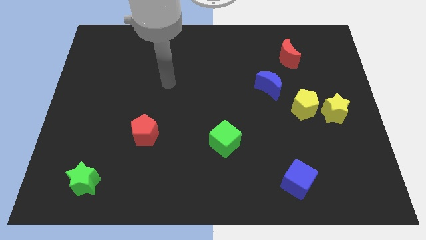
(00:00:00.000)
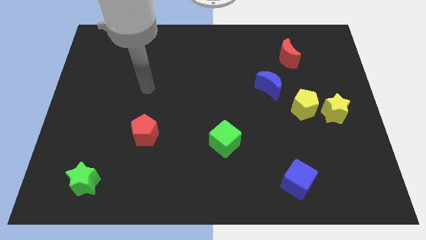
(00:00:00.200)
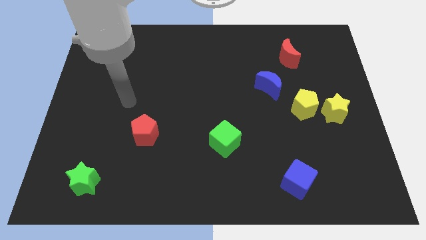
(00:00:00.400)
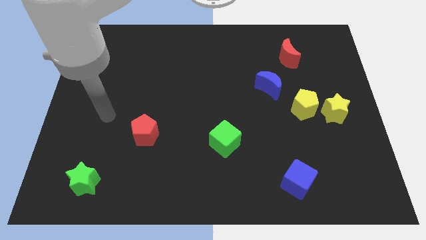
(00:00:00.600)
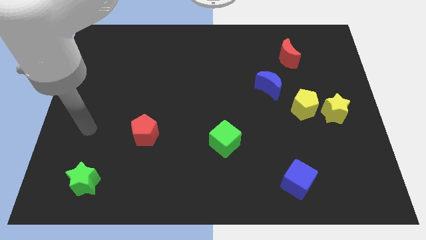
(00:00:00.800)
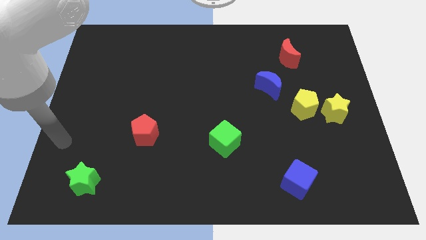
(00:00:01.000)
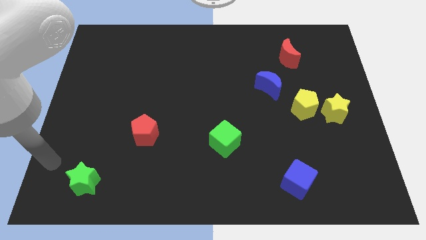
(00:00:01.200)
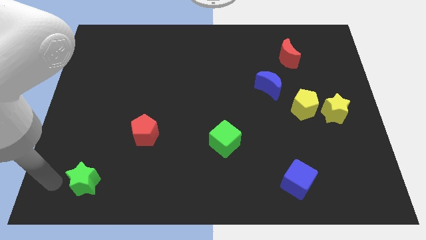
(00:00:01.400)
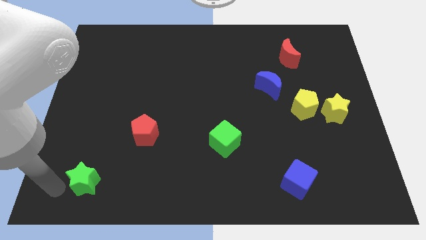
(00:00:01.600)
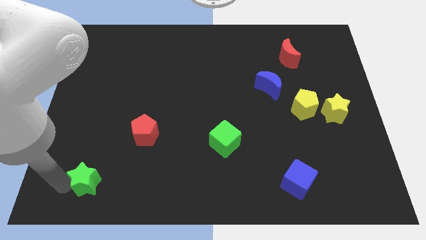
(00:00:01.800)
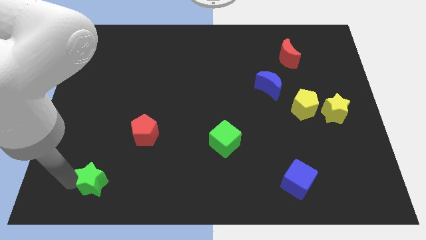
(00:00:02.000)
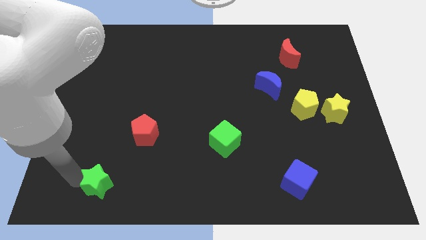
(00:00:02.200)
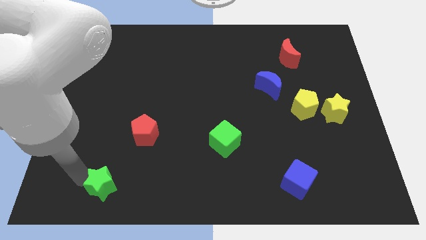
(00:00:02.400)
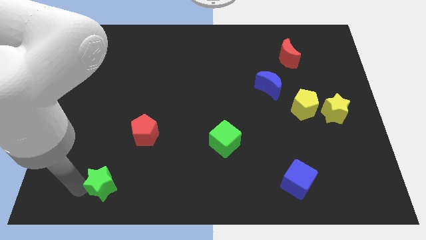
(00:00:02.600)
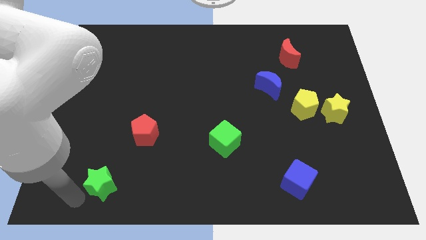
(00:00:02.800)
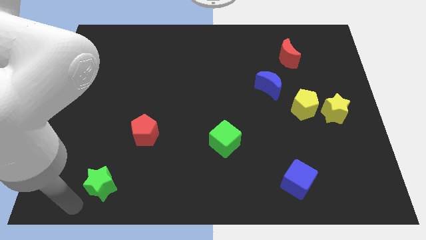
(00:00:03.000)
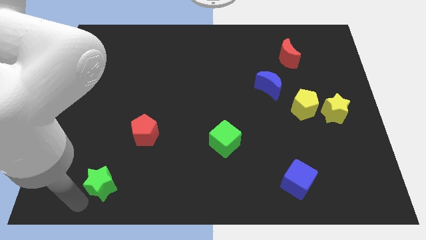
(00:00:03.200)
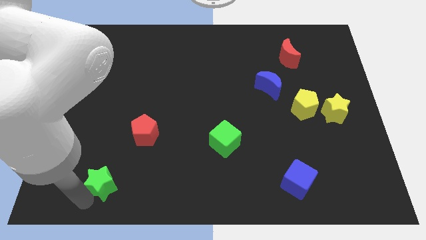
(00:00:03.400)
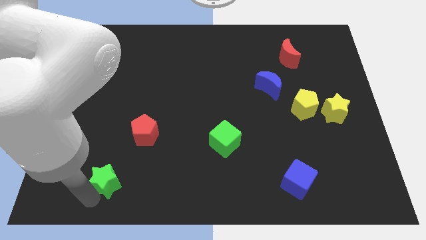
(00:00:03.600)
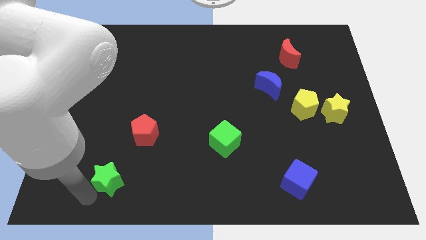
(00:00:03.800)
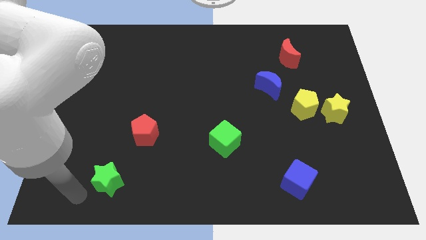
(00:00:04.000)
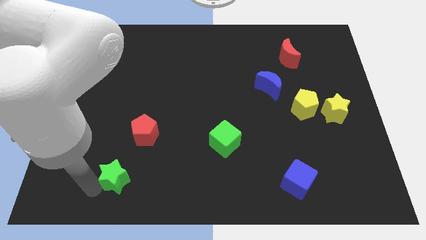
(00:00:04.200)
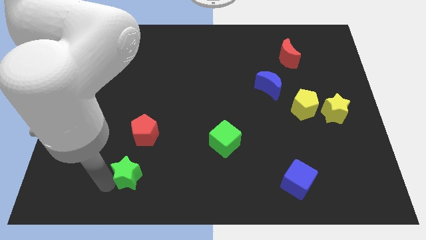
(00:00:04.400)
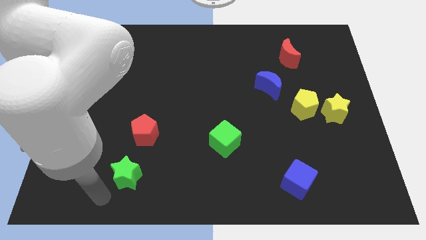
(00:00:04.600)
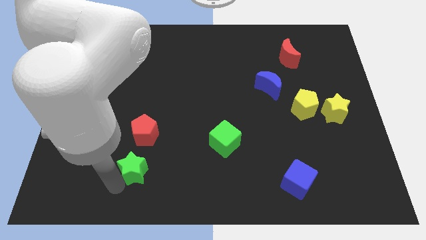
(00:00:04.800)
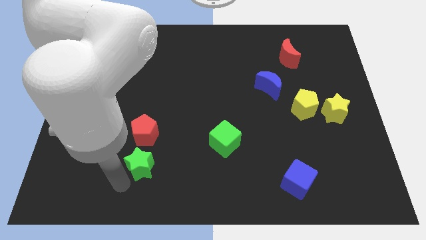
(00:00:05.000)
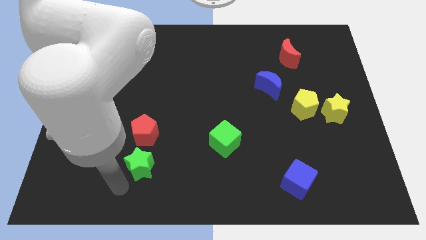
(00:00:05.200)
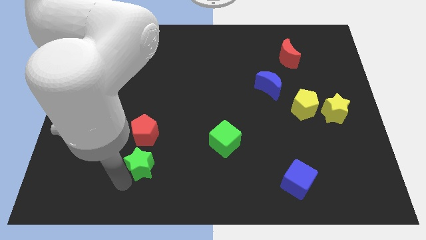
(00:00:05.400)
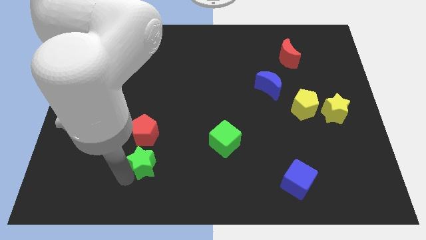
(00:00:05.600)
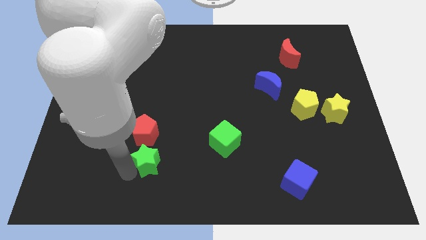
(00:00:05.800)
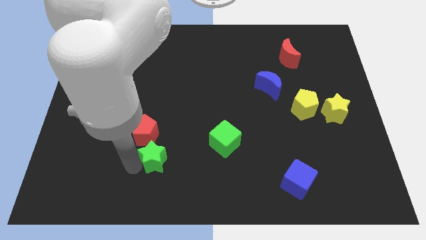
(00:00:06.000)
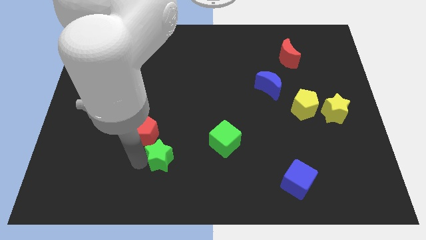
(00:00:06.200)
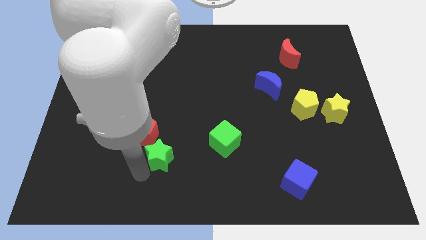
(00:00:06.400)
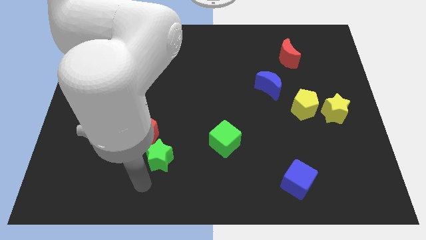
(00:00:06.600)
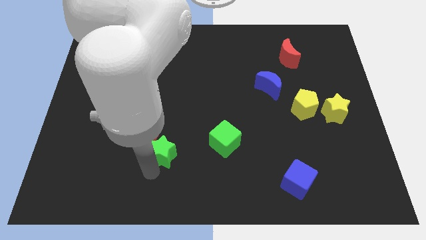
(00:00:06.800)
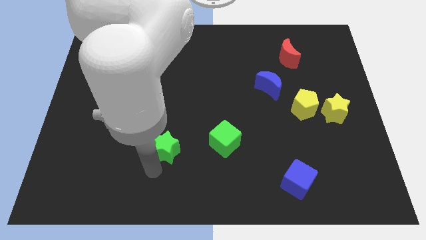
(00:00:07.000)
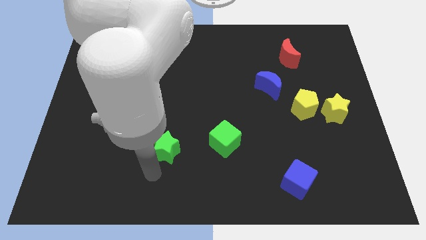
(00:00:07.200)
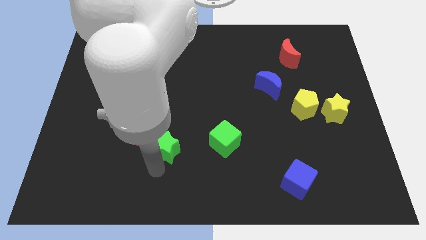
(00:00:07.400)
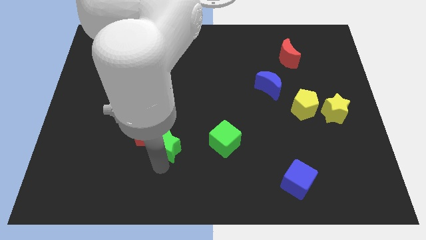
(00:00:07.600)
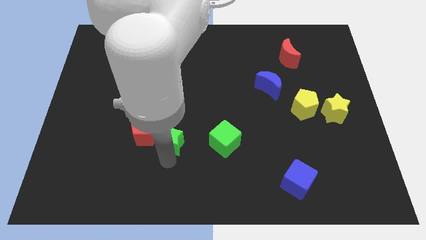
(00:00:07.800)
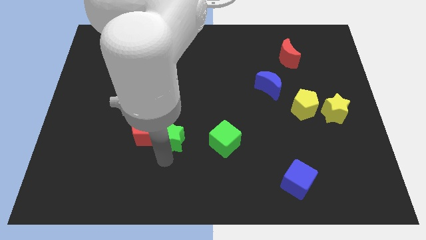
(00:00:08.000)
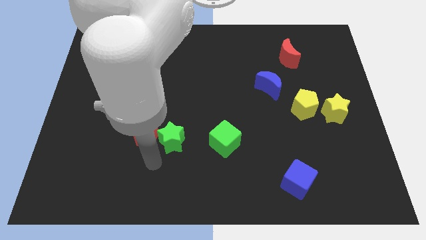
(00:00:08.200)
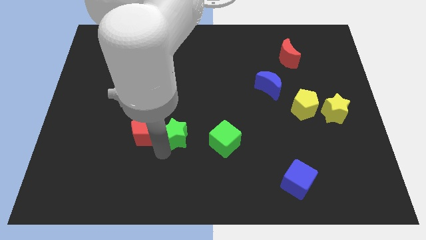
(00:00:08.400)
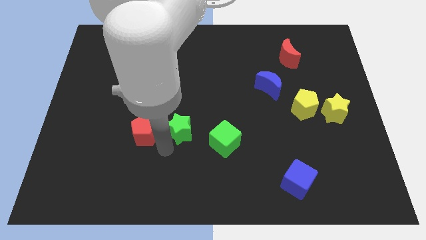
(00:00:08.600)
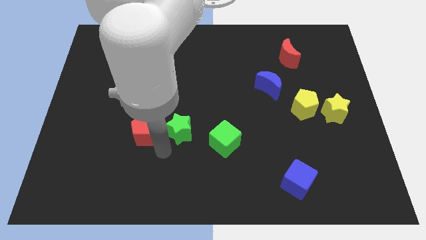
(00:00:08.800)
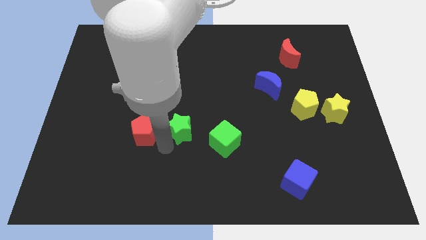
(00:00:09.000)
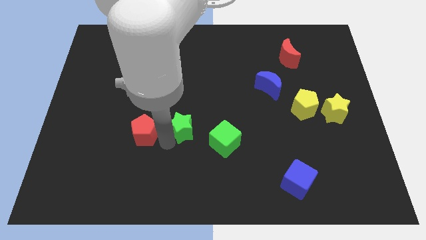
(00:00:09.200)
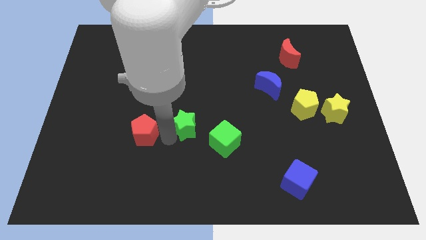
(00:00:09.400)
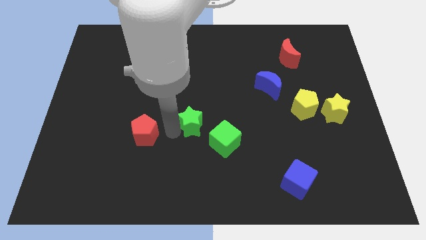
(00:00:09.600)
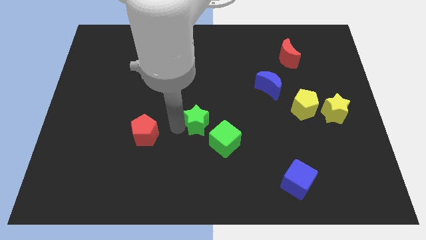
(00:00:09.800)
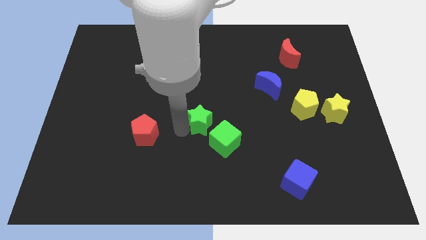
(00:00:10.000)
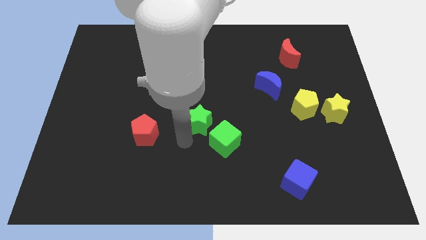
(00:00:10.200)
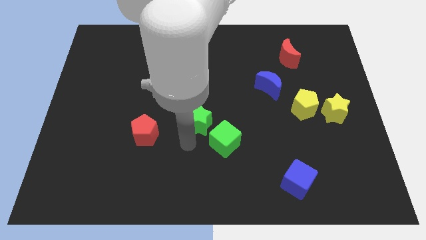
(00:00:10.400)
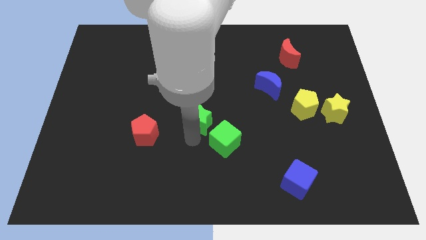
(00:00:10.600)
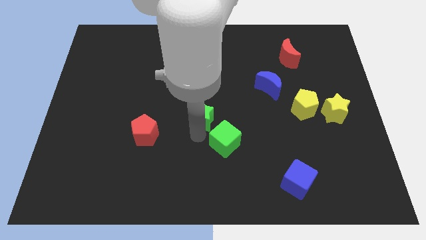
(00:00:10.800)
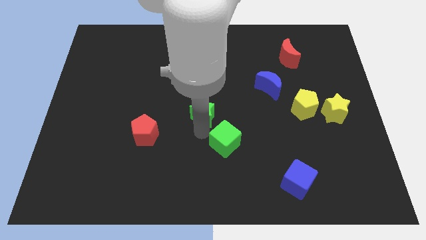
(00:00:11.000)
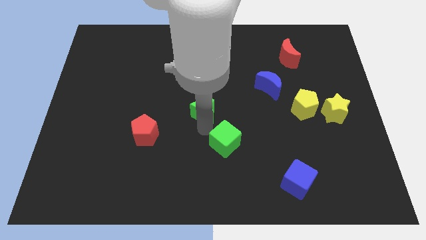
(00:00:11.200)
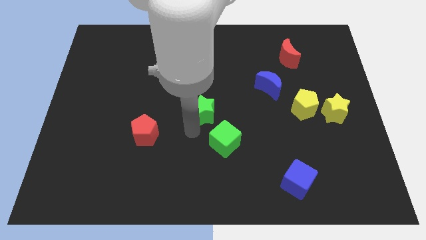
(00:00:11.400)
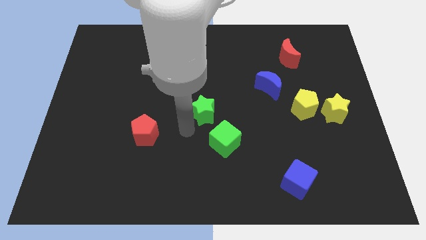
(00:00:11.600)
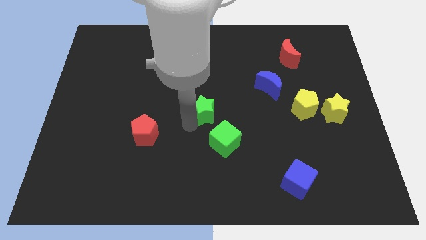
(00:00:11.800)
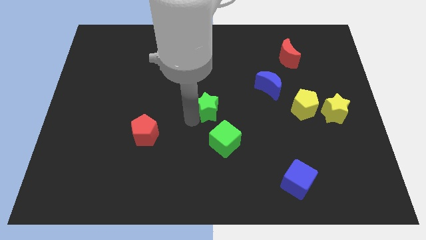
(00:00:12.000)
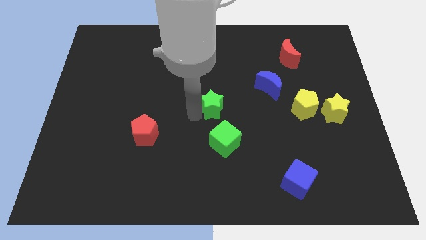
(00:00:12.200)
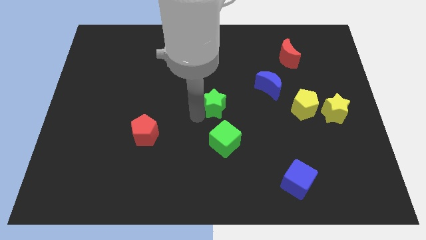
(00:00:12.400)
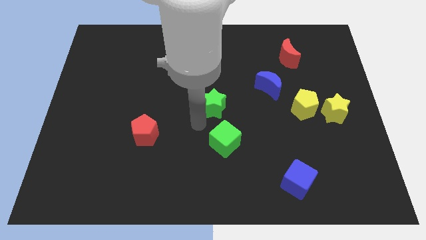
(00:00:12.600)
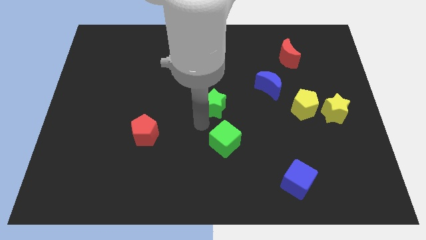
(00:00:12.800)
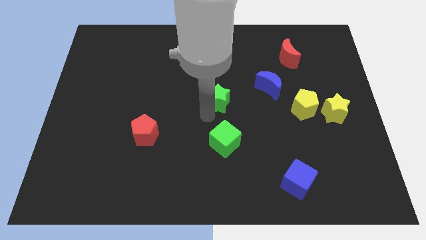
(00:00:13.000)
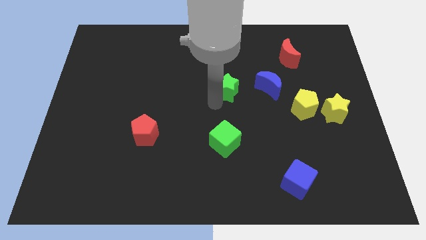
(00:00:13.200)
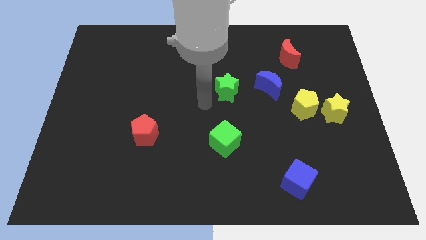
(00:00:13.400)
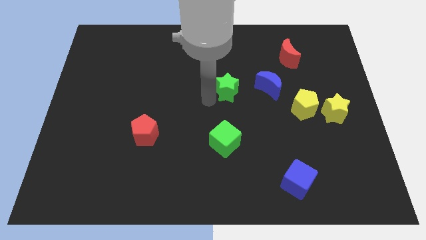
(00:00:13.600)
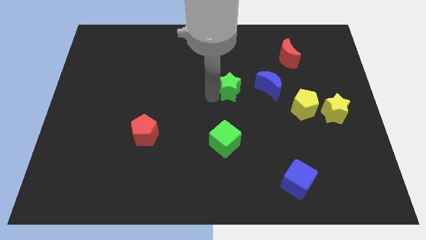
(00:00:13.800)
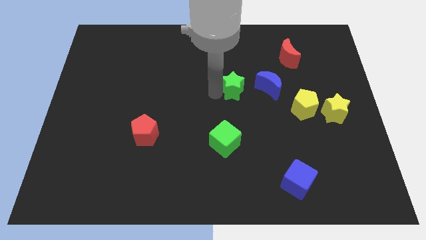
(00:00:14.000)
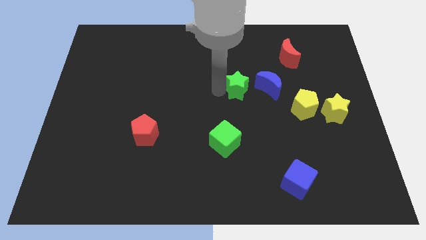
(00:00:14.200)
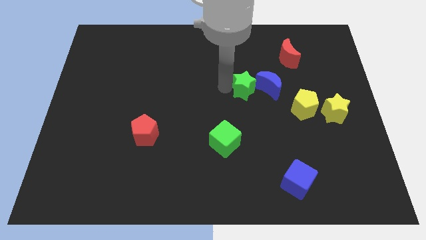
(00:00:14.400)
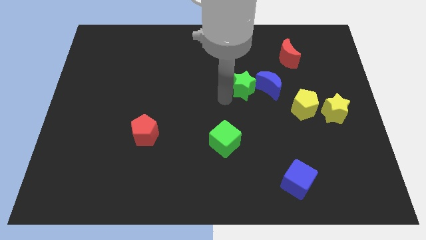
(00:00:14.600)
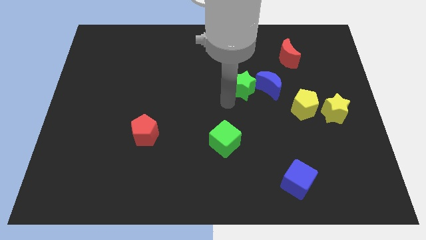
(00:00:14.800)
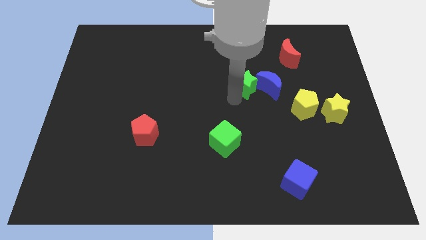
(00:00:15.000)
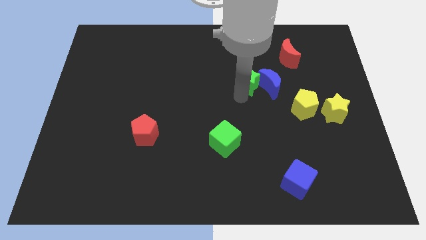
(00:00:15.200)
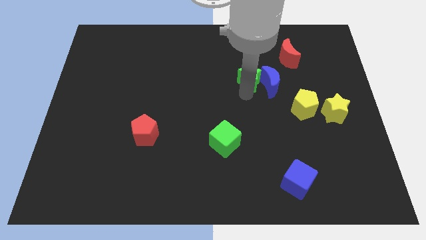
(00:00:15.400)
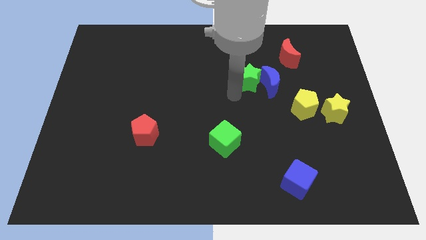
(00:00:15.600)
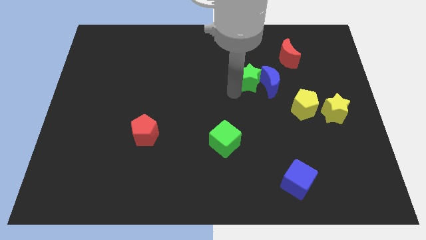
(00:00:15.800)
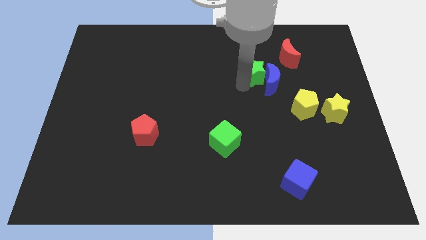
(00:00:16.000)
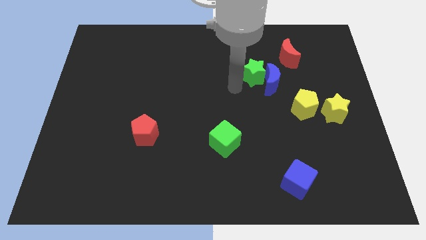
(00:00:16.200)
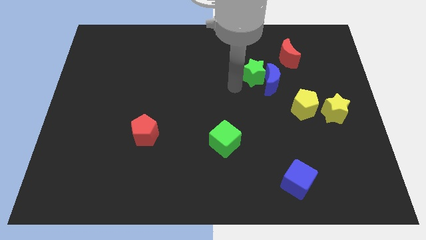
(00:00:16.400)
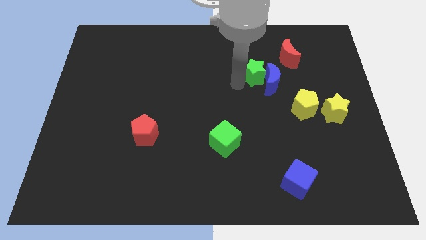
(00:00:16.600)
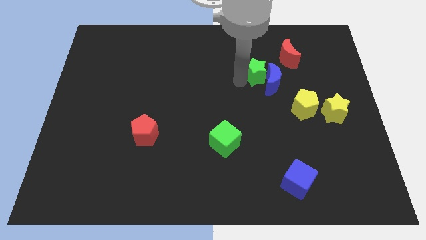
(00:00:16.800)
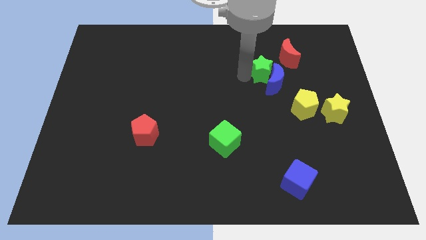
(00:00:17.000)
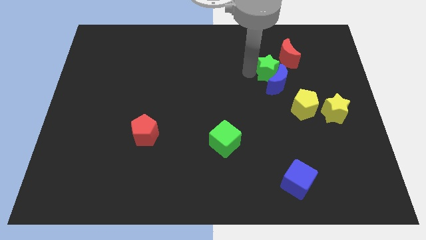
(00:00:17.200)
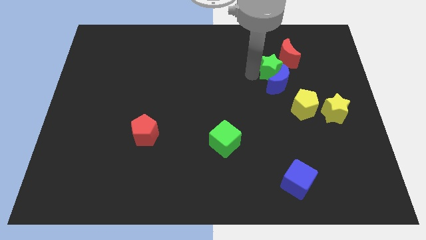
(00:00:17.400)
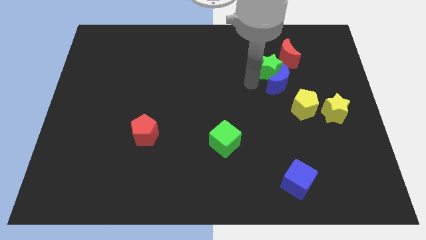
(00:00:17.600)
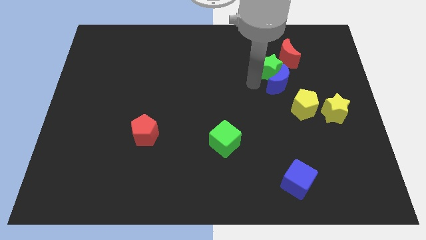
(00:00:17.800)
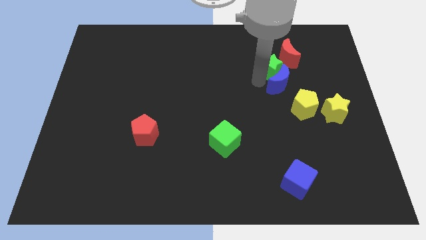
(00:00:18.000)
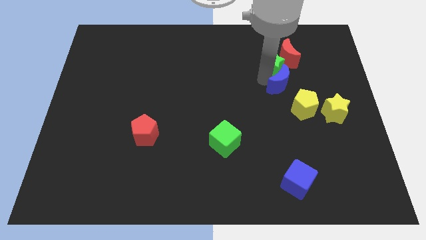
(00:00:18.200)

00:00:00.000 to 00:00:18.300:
slide the green star close to the red moon
